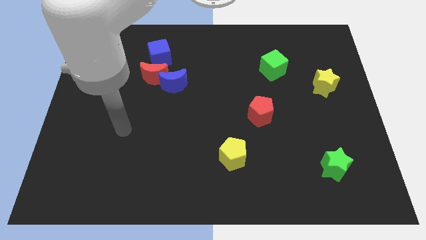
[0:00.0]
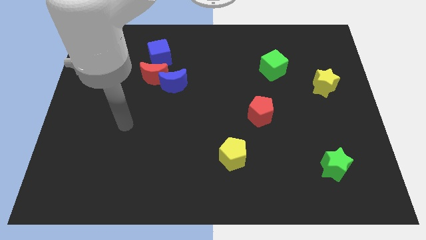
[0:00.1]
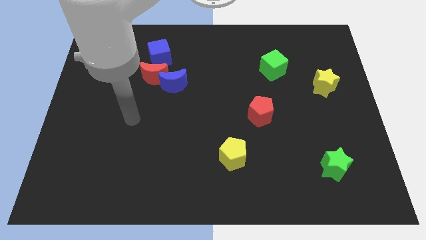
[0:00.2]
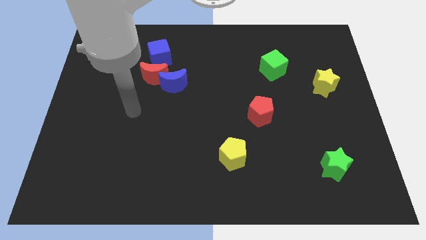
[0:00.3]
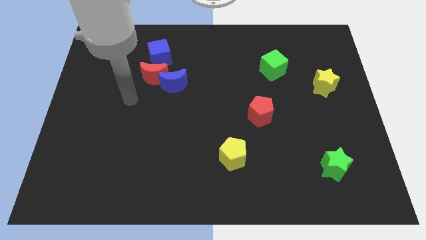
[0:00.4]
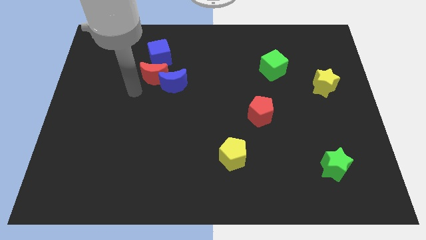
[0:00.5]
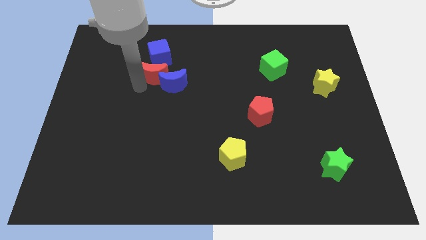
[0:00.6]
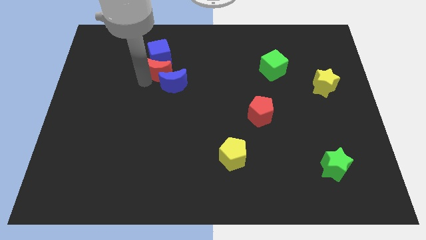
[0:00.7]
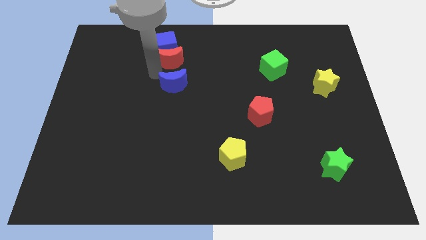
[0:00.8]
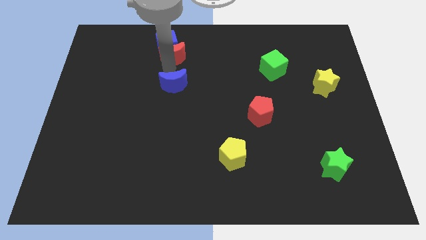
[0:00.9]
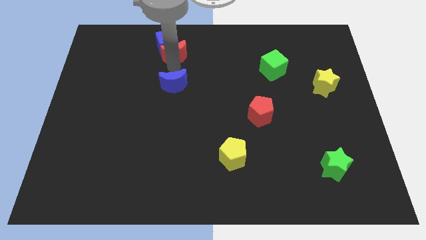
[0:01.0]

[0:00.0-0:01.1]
separate the blue moon from the red moon

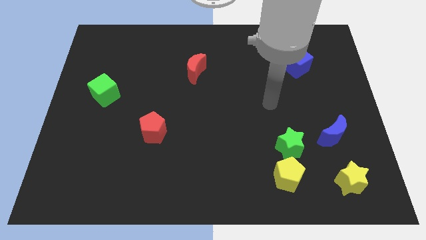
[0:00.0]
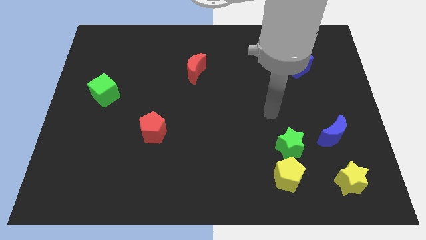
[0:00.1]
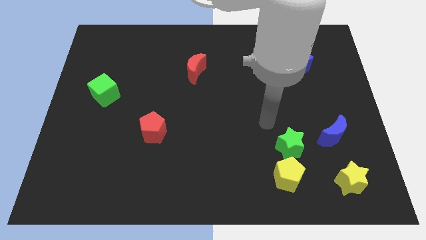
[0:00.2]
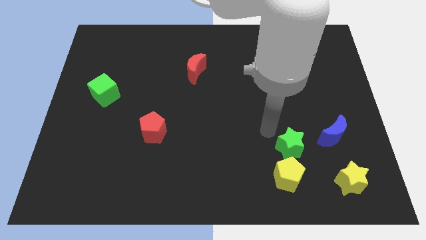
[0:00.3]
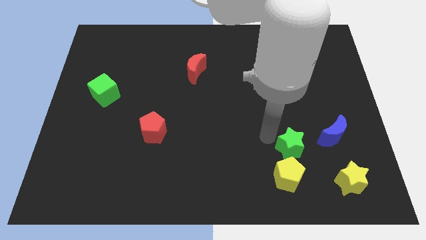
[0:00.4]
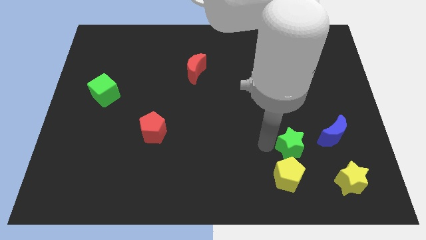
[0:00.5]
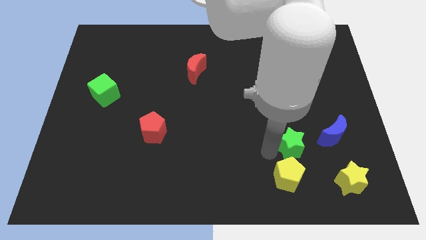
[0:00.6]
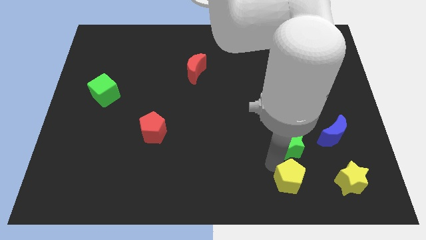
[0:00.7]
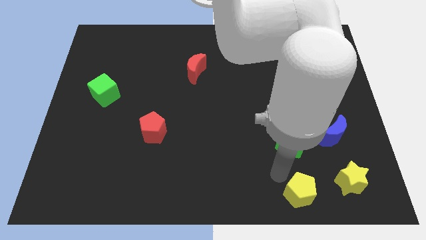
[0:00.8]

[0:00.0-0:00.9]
pull the green star apart from the yellow pentagon

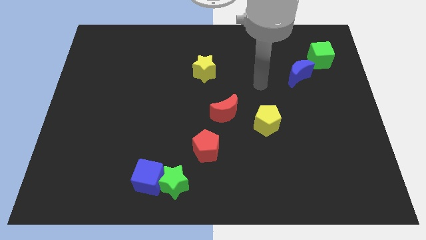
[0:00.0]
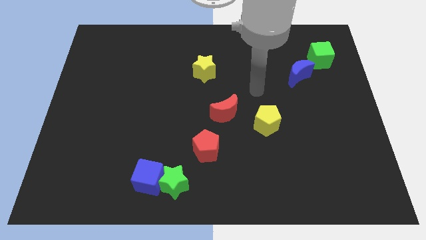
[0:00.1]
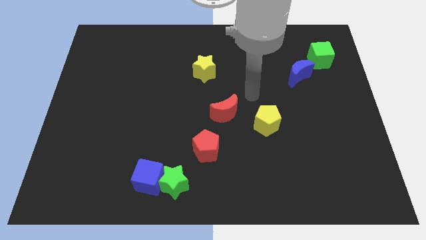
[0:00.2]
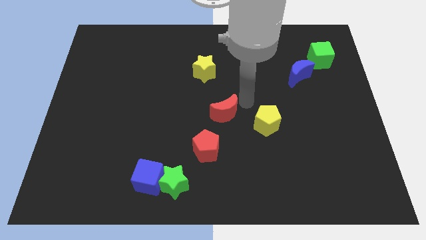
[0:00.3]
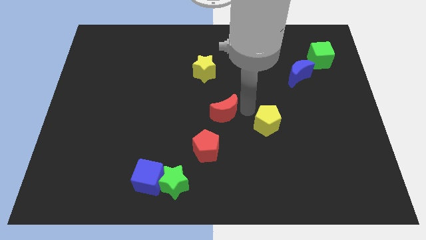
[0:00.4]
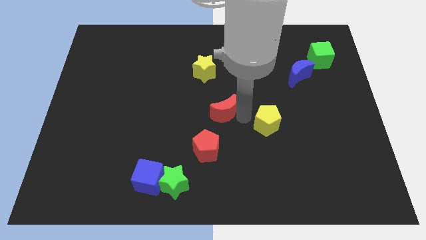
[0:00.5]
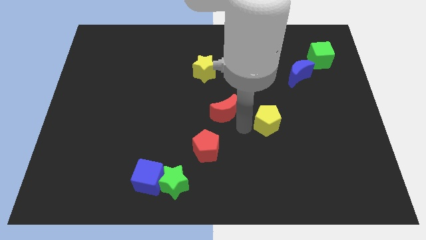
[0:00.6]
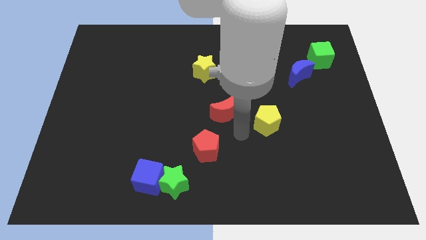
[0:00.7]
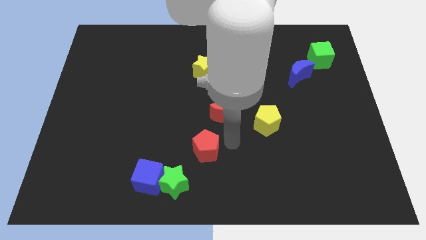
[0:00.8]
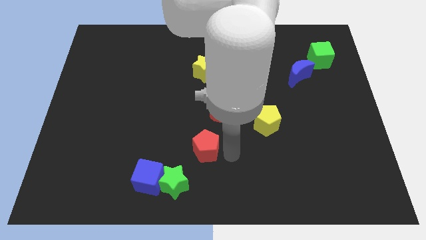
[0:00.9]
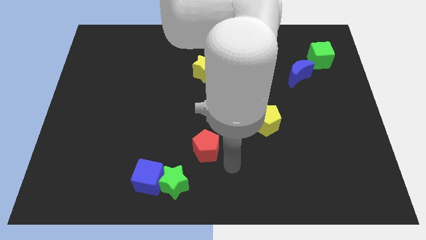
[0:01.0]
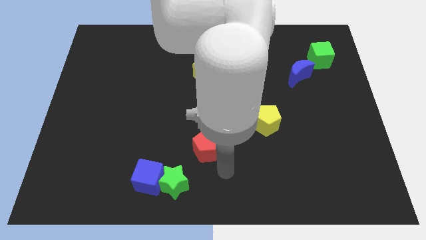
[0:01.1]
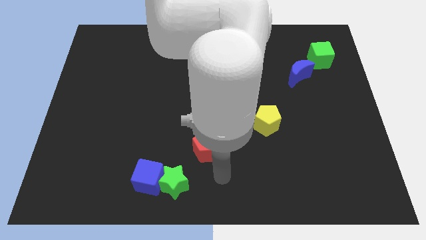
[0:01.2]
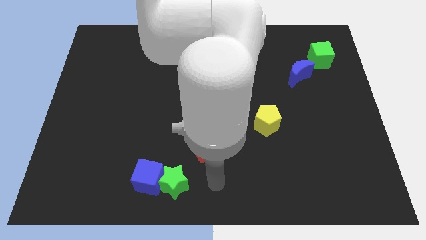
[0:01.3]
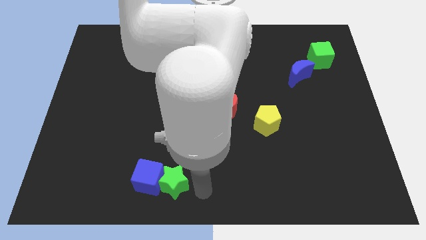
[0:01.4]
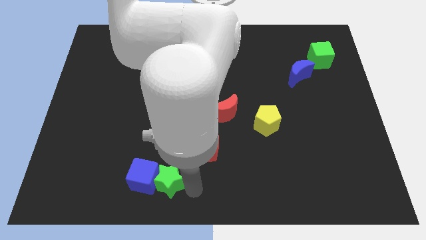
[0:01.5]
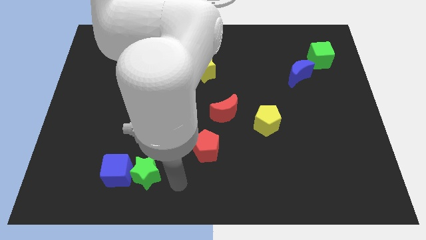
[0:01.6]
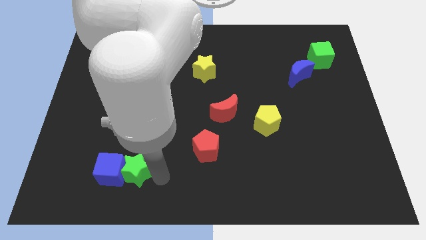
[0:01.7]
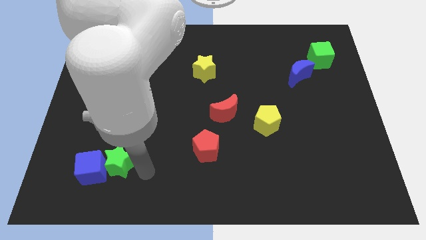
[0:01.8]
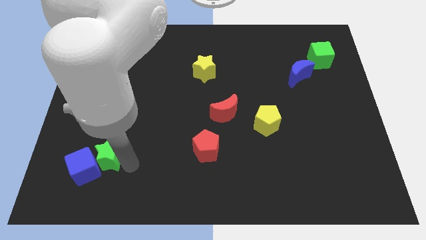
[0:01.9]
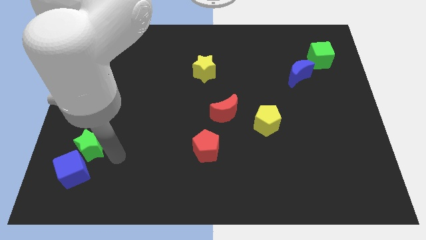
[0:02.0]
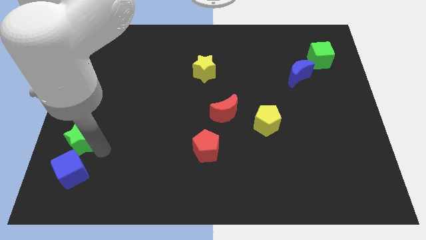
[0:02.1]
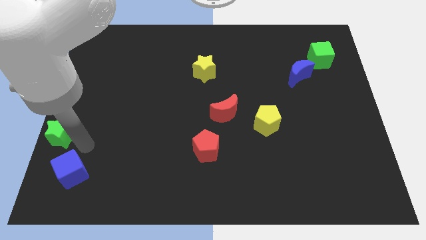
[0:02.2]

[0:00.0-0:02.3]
separate the blue cube from the green star

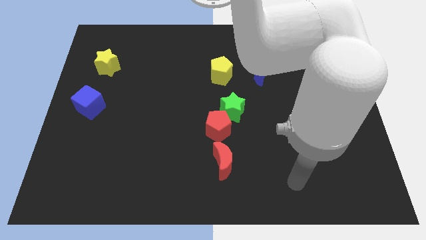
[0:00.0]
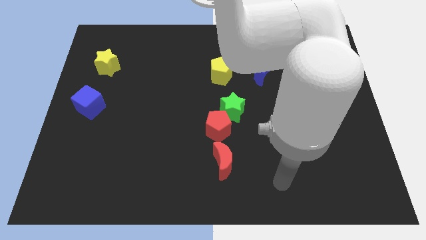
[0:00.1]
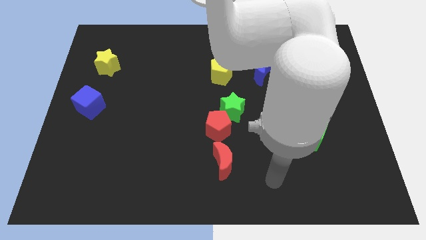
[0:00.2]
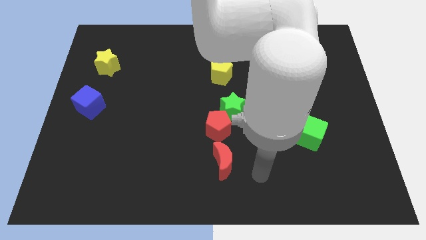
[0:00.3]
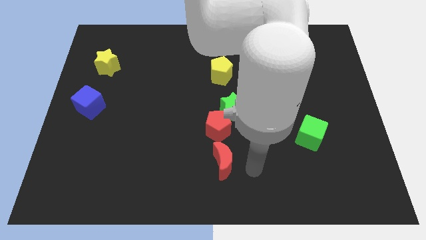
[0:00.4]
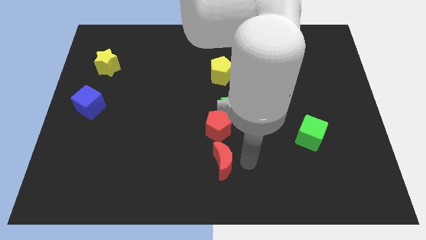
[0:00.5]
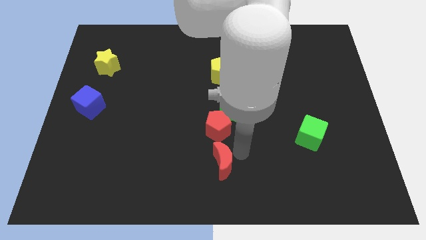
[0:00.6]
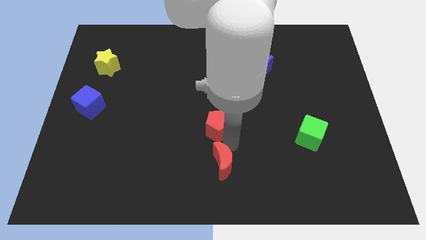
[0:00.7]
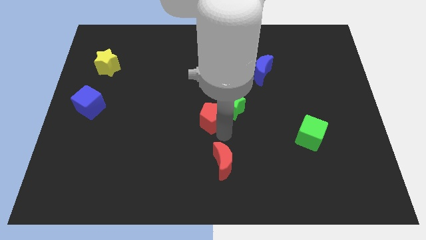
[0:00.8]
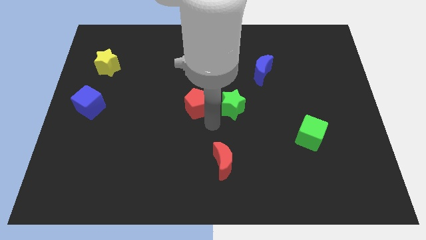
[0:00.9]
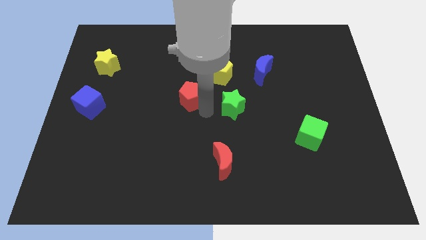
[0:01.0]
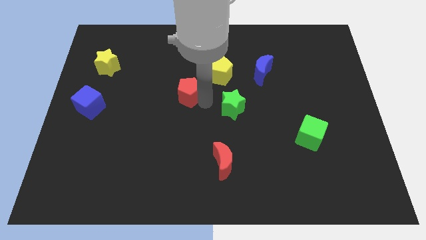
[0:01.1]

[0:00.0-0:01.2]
separate the green star from the red pentagon

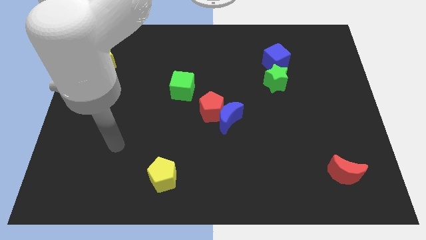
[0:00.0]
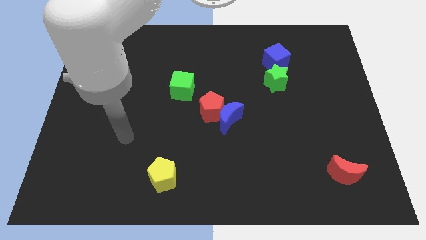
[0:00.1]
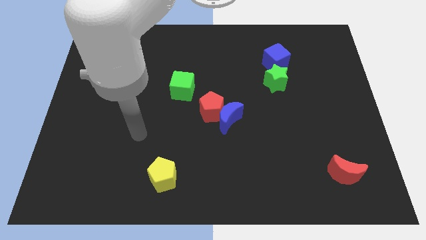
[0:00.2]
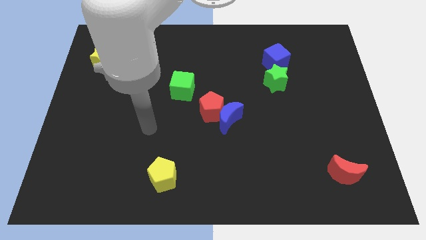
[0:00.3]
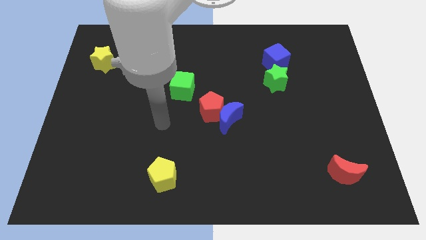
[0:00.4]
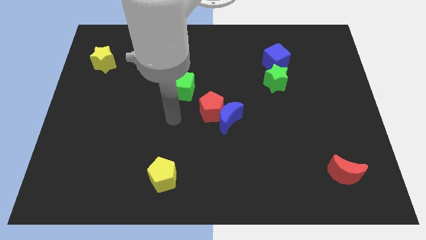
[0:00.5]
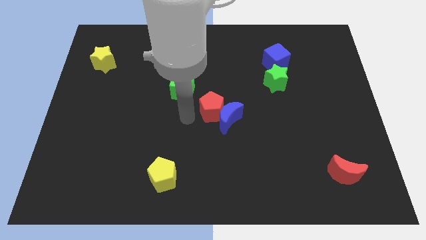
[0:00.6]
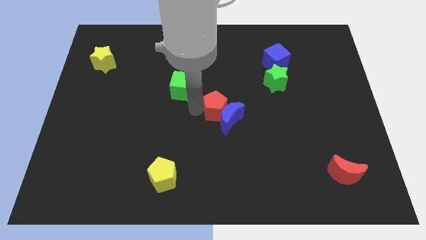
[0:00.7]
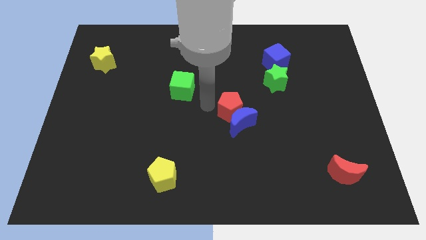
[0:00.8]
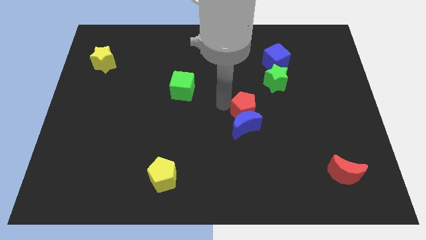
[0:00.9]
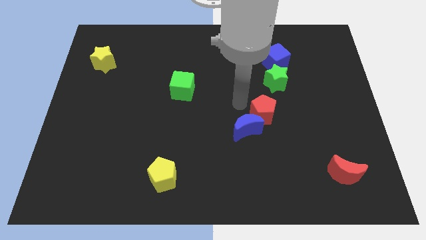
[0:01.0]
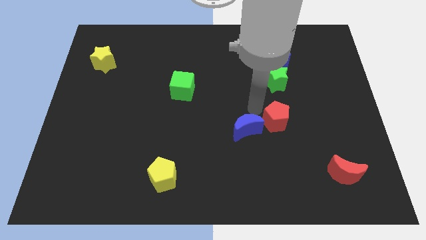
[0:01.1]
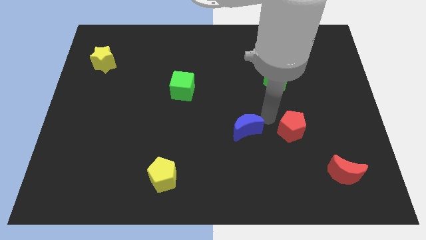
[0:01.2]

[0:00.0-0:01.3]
pull the blue moon apart from the red pentagon

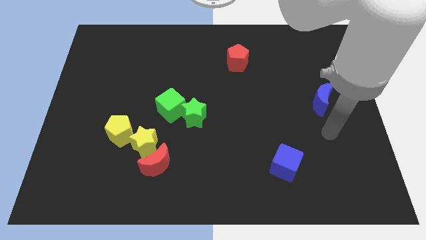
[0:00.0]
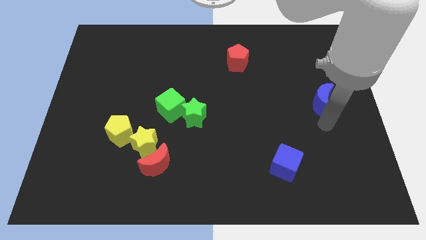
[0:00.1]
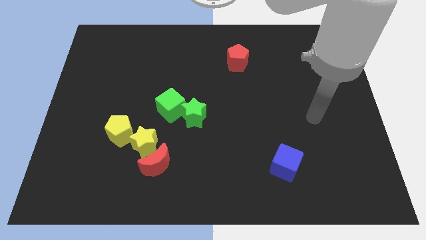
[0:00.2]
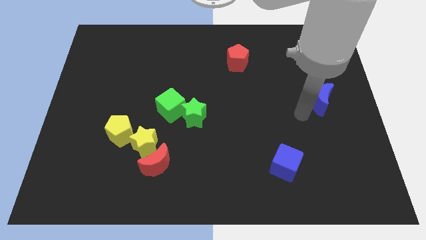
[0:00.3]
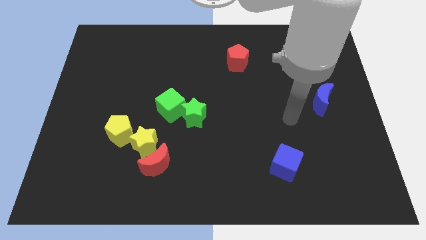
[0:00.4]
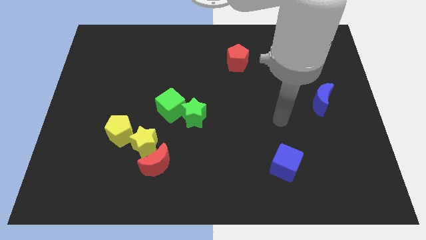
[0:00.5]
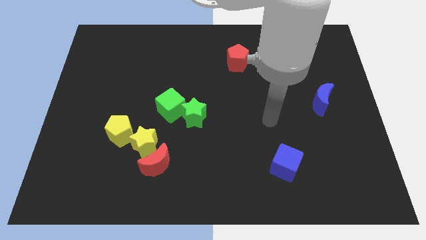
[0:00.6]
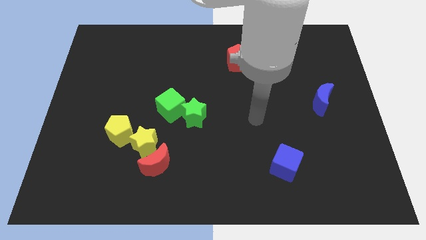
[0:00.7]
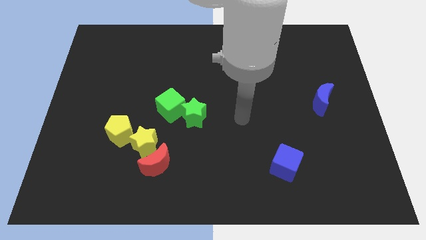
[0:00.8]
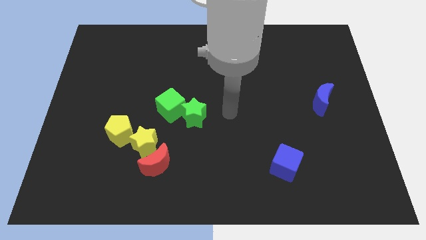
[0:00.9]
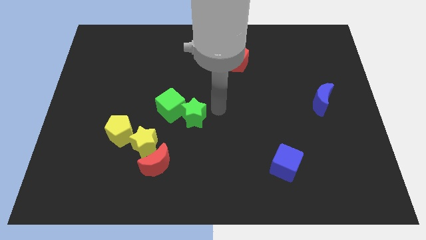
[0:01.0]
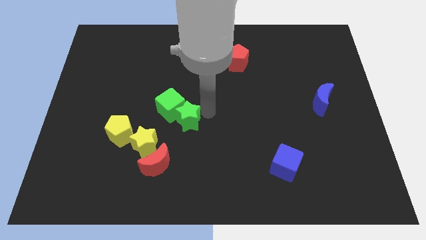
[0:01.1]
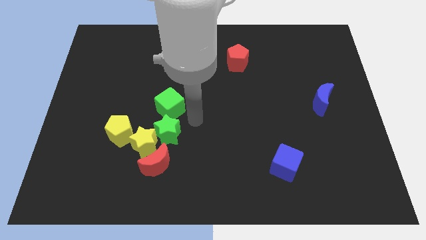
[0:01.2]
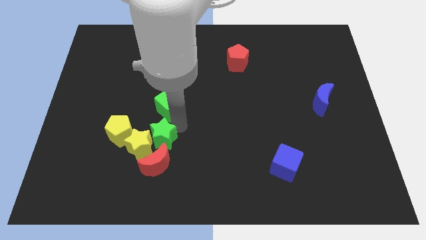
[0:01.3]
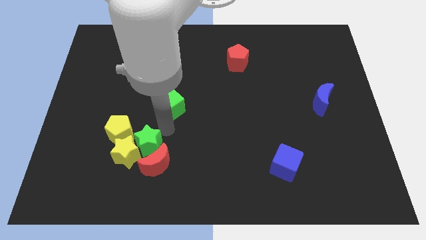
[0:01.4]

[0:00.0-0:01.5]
separate the green cube from the green star

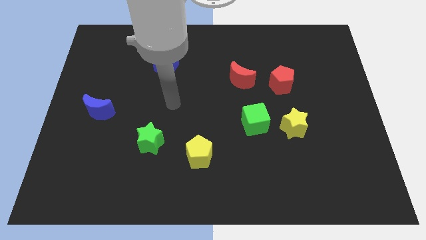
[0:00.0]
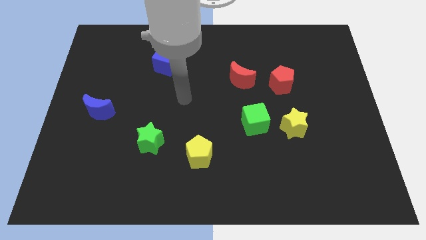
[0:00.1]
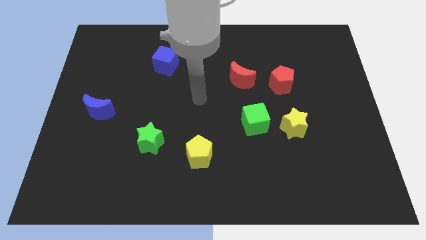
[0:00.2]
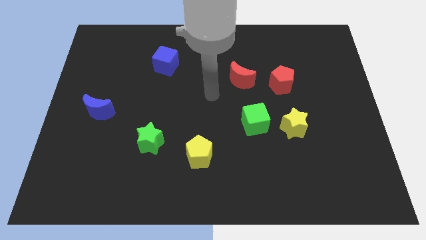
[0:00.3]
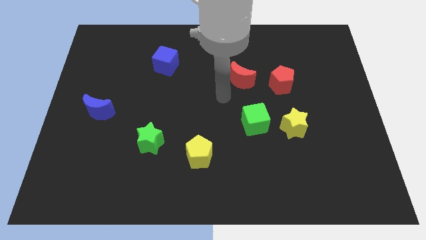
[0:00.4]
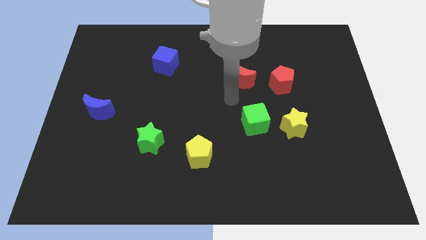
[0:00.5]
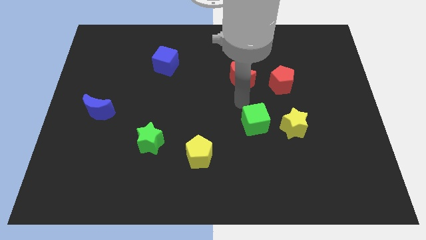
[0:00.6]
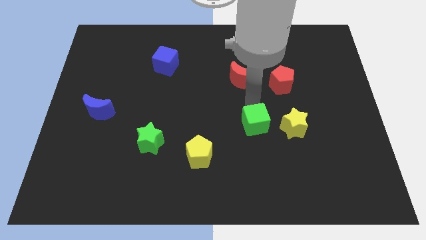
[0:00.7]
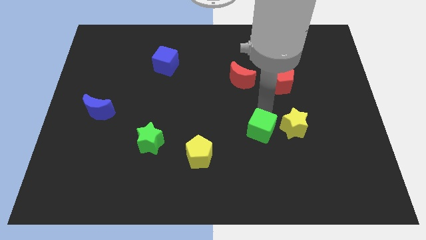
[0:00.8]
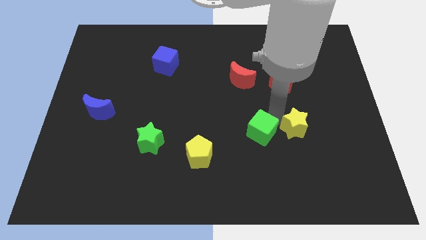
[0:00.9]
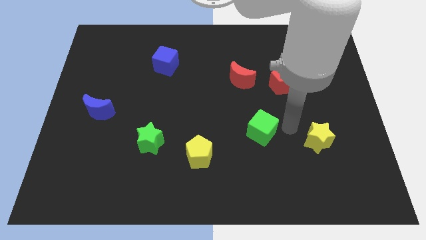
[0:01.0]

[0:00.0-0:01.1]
pull the green cube apart from the yellow star

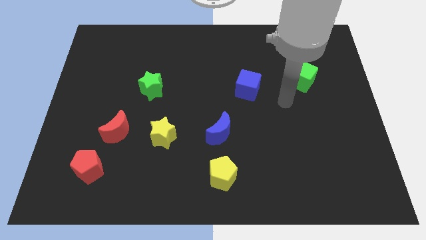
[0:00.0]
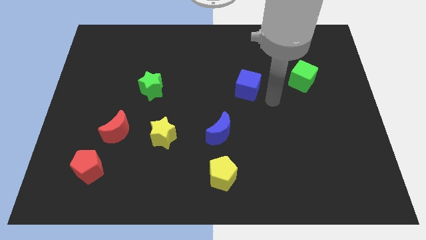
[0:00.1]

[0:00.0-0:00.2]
pull the red moon apart from the red pentagon
